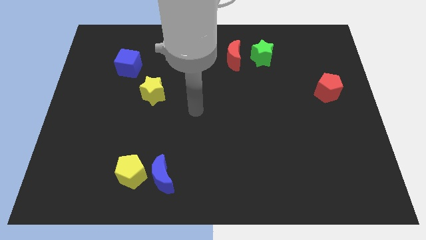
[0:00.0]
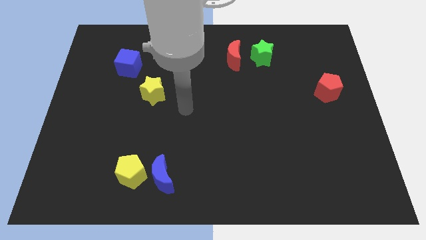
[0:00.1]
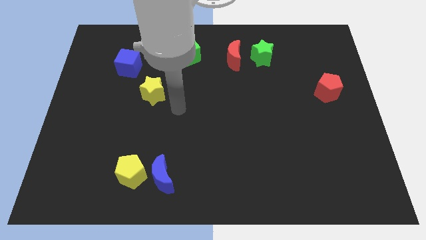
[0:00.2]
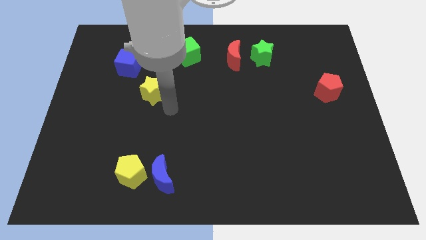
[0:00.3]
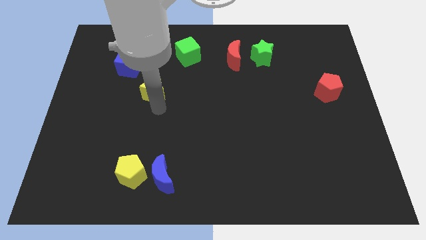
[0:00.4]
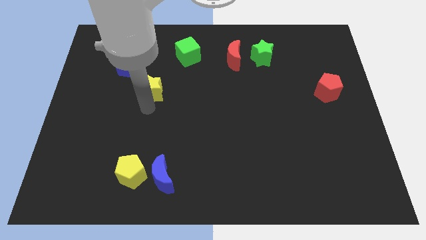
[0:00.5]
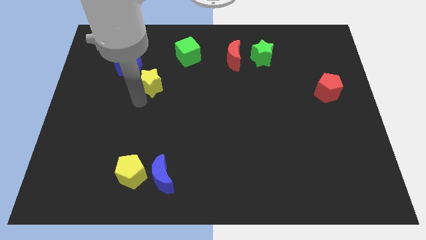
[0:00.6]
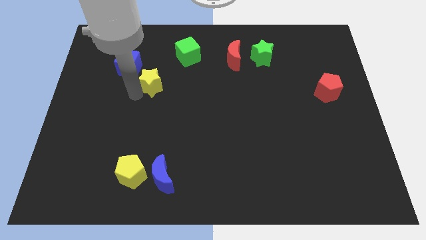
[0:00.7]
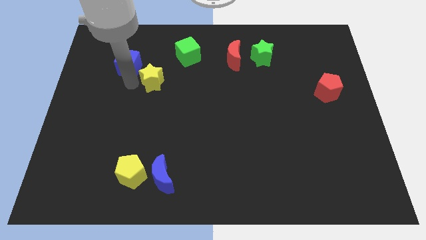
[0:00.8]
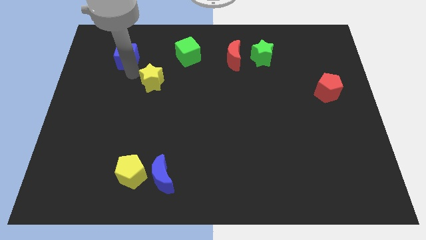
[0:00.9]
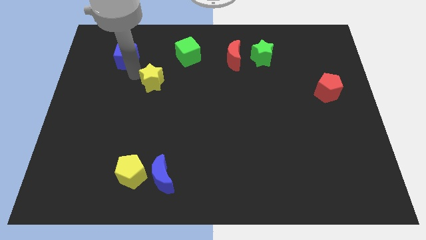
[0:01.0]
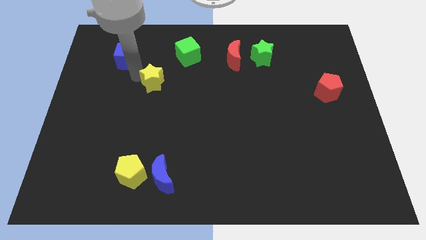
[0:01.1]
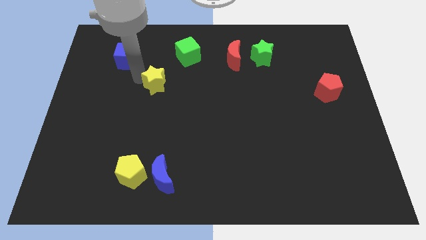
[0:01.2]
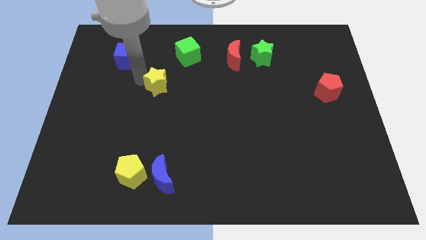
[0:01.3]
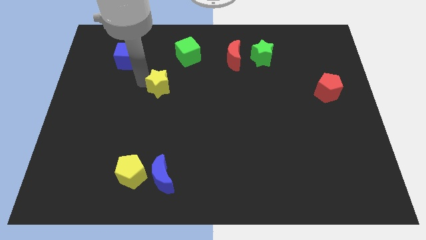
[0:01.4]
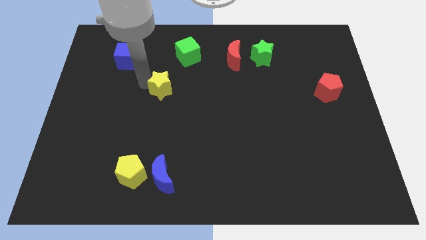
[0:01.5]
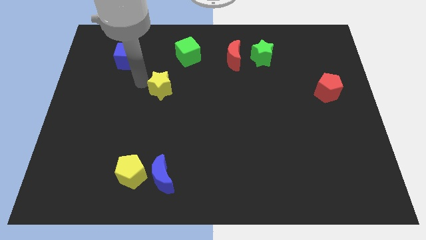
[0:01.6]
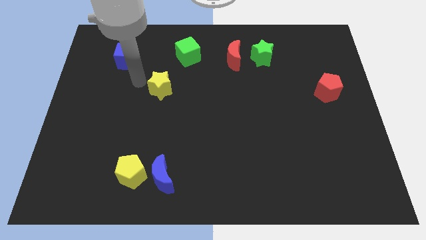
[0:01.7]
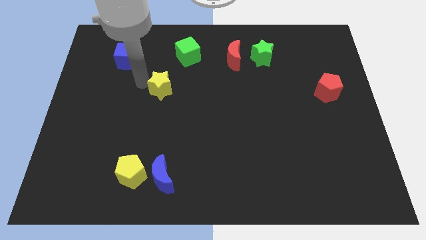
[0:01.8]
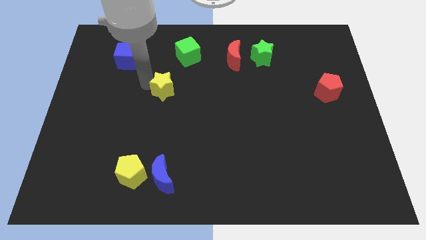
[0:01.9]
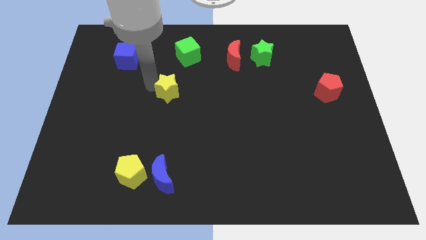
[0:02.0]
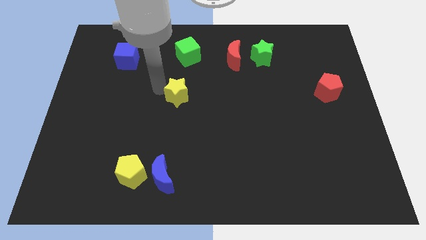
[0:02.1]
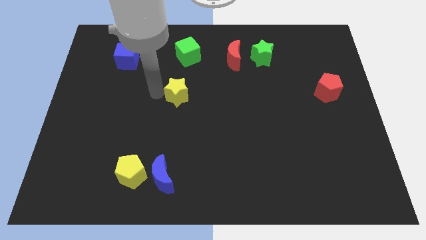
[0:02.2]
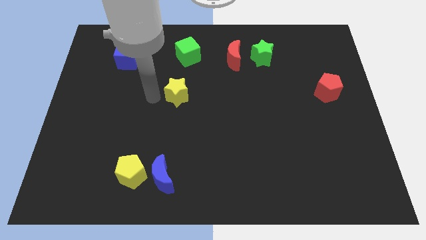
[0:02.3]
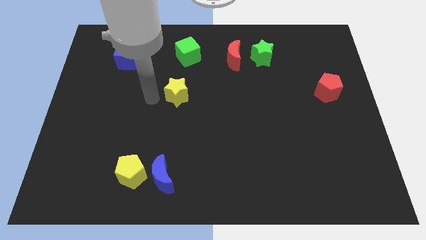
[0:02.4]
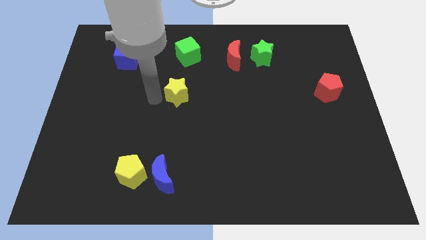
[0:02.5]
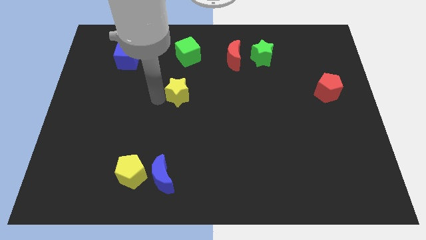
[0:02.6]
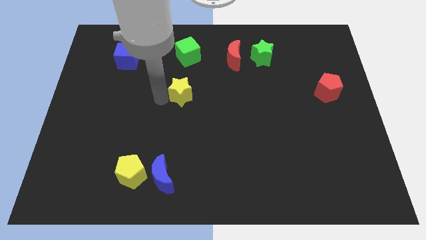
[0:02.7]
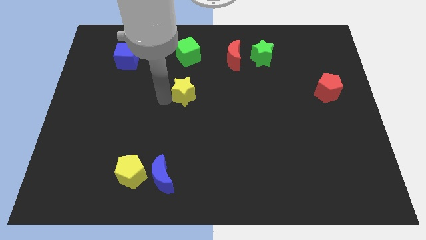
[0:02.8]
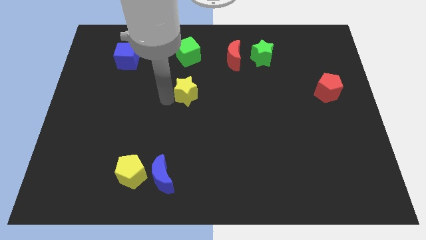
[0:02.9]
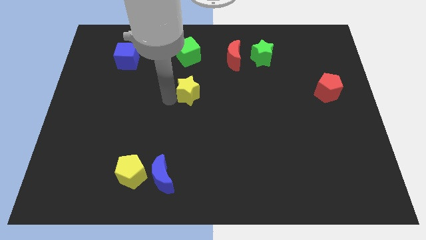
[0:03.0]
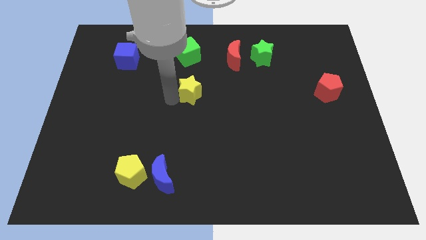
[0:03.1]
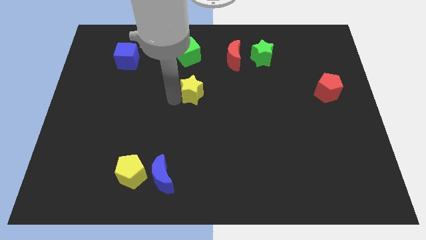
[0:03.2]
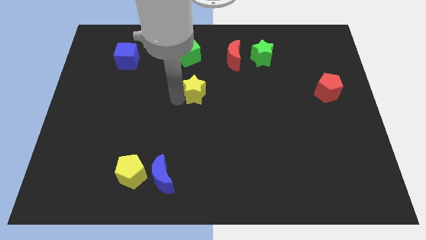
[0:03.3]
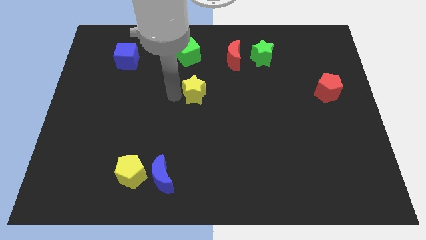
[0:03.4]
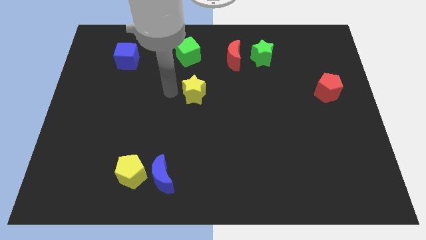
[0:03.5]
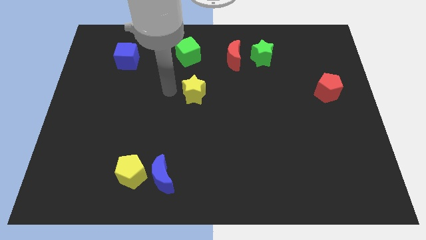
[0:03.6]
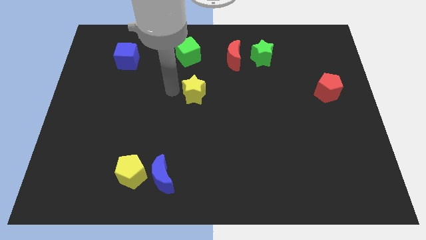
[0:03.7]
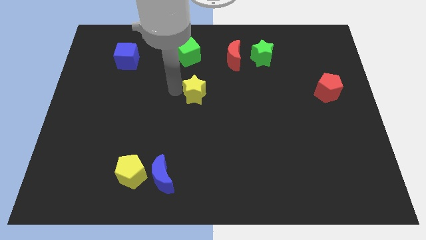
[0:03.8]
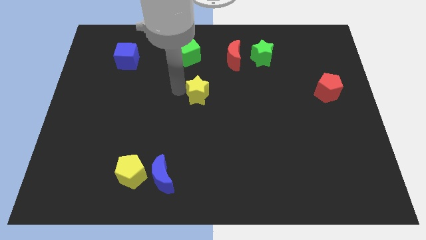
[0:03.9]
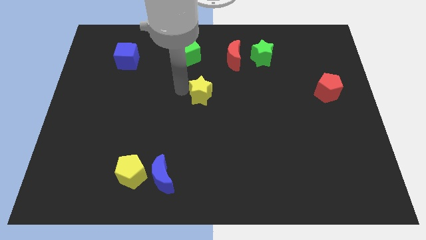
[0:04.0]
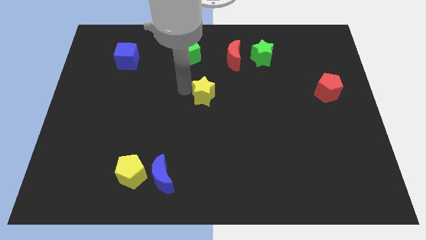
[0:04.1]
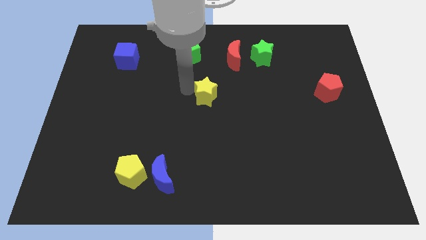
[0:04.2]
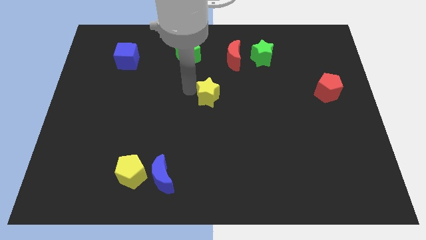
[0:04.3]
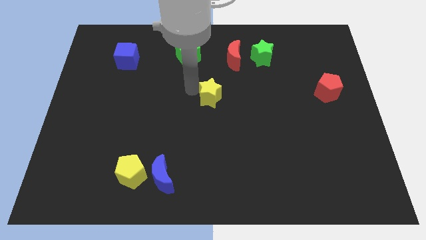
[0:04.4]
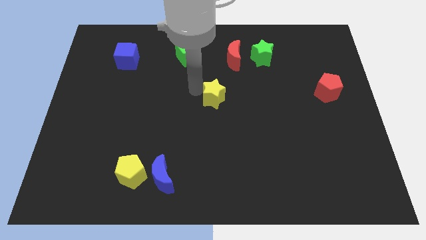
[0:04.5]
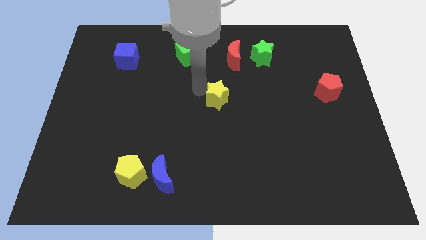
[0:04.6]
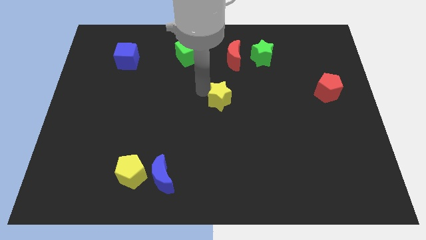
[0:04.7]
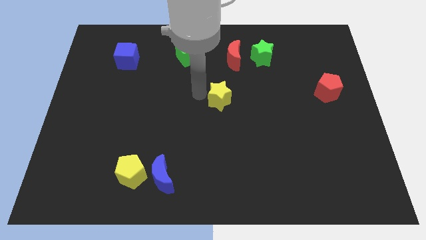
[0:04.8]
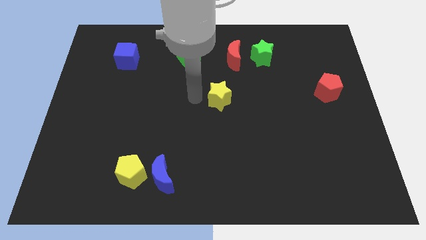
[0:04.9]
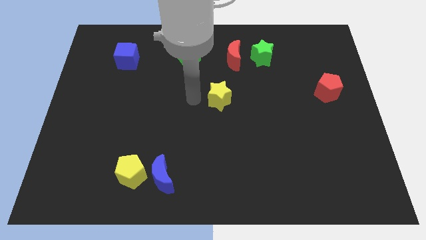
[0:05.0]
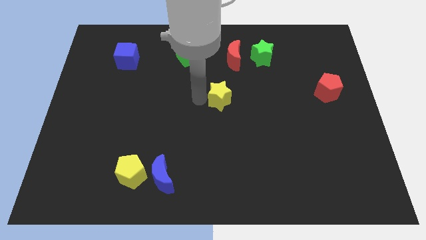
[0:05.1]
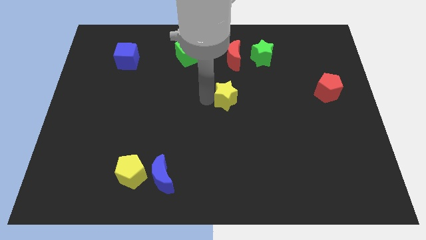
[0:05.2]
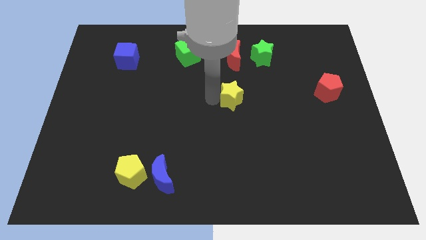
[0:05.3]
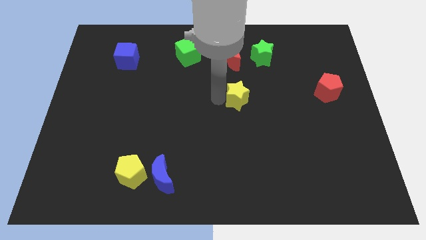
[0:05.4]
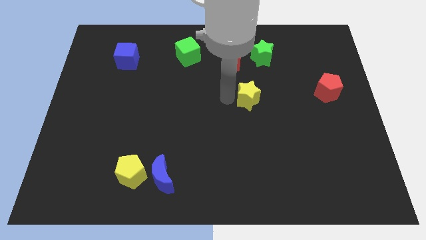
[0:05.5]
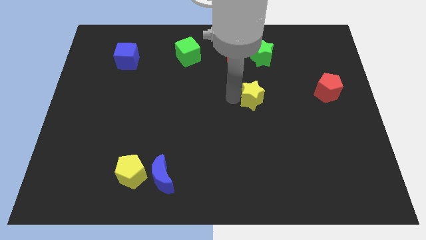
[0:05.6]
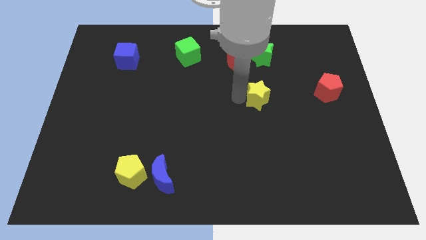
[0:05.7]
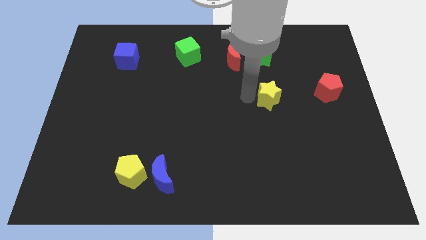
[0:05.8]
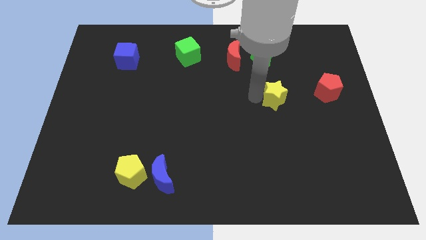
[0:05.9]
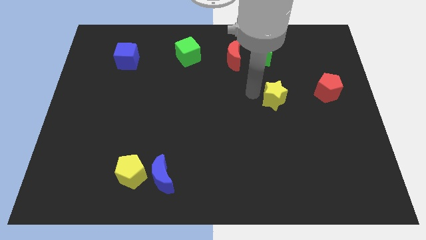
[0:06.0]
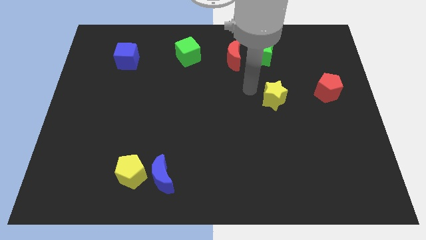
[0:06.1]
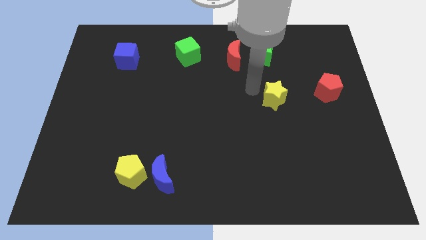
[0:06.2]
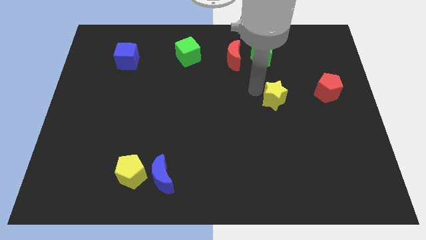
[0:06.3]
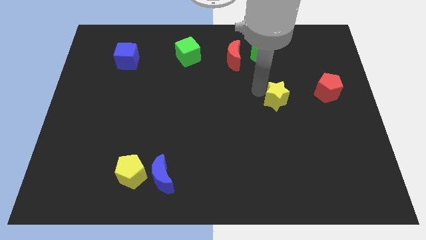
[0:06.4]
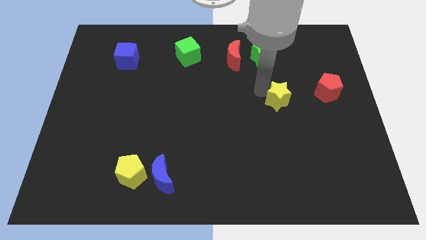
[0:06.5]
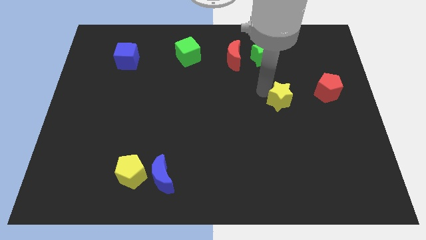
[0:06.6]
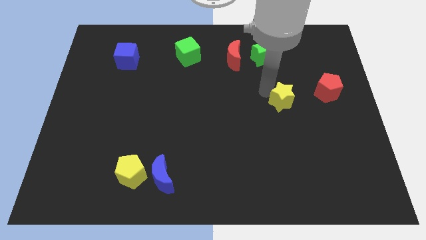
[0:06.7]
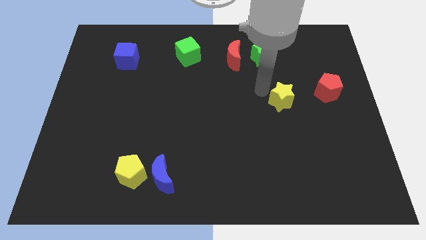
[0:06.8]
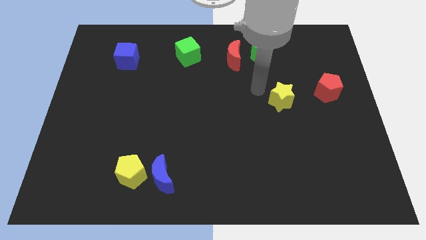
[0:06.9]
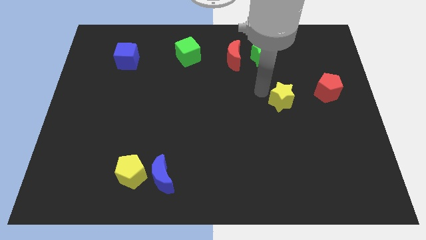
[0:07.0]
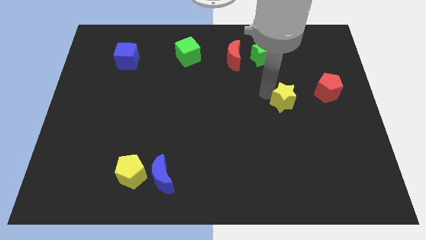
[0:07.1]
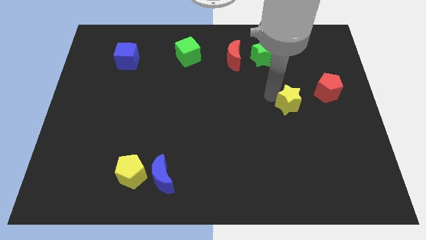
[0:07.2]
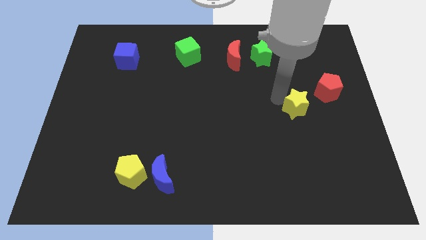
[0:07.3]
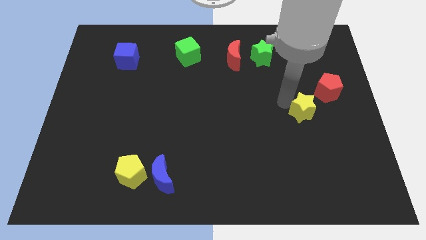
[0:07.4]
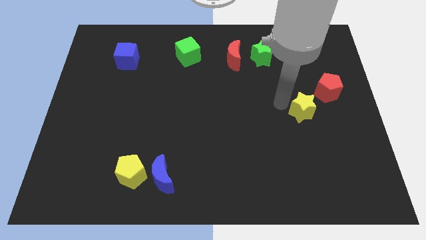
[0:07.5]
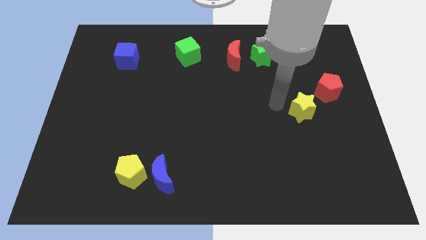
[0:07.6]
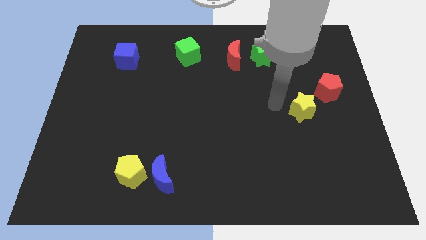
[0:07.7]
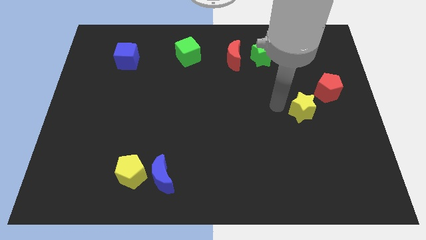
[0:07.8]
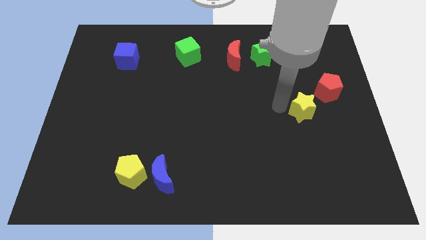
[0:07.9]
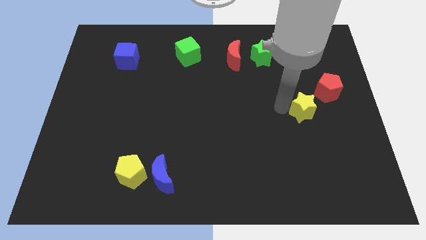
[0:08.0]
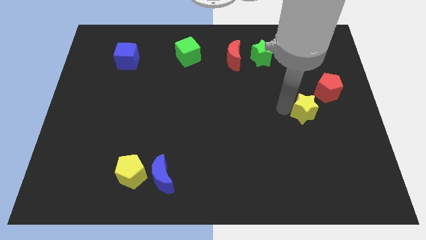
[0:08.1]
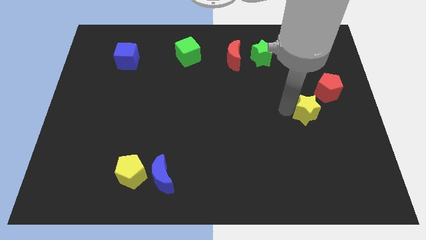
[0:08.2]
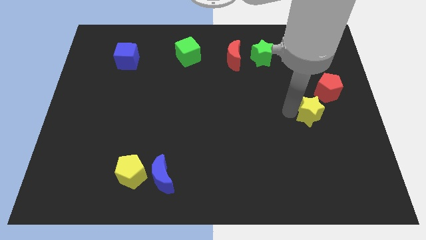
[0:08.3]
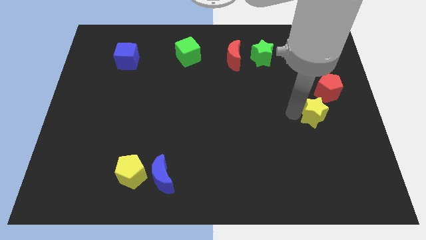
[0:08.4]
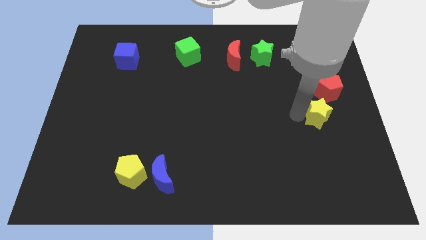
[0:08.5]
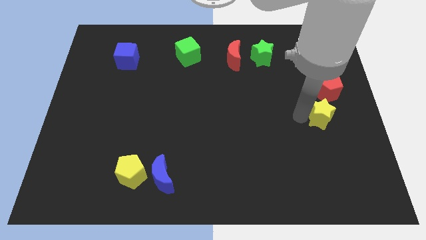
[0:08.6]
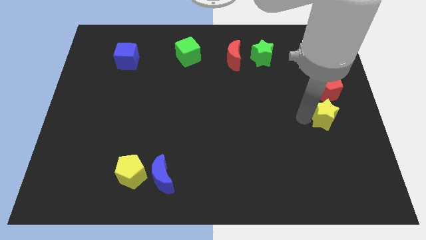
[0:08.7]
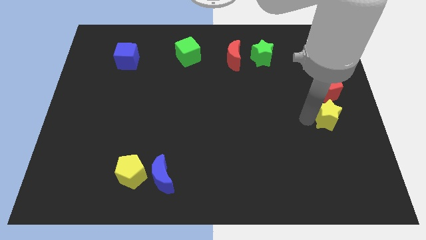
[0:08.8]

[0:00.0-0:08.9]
slide the yellow star to the right side
